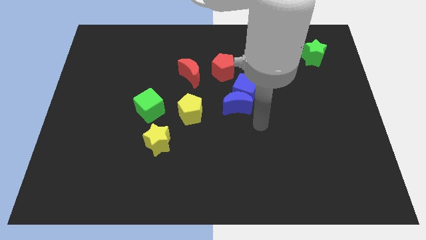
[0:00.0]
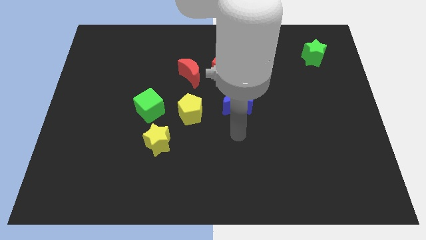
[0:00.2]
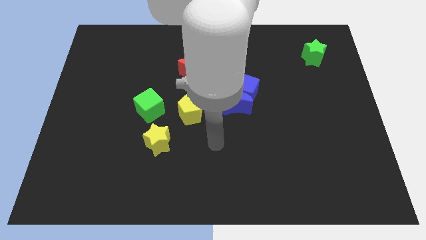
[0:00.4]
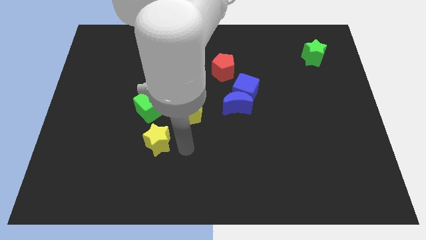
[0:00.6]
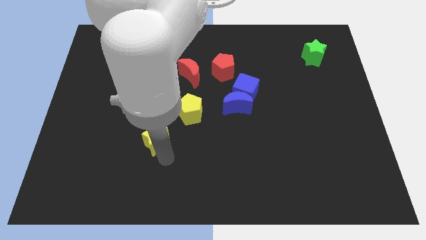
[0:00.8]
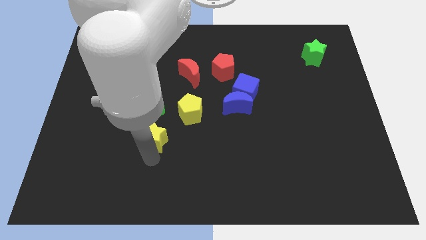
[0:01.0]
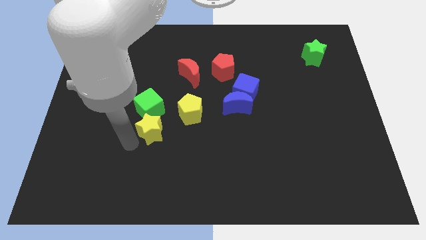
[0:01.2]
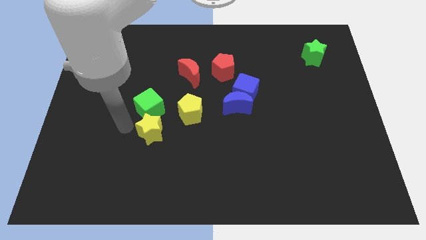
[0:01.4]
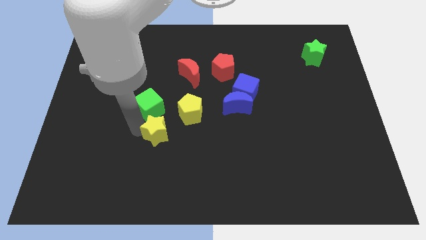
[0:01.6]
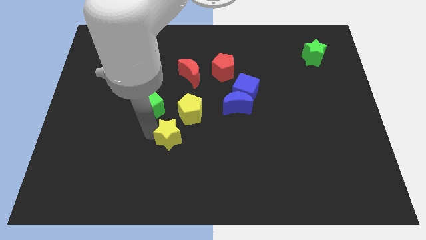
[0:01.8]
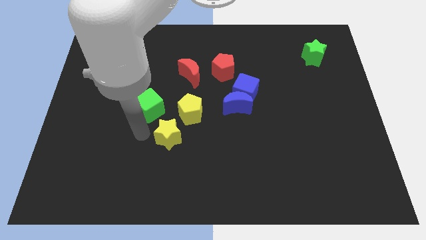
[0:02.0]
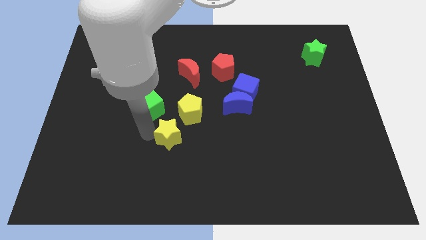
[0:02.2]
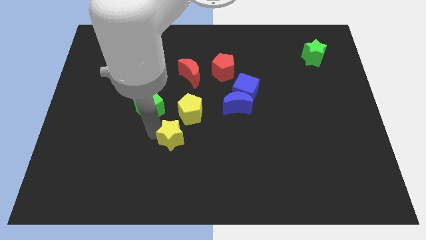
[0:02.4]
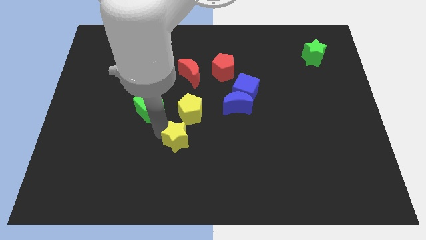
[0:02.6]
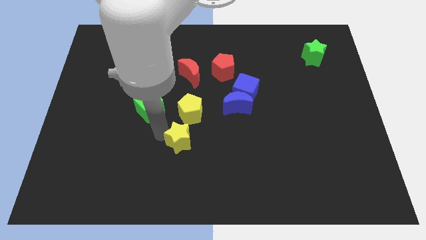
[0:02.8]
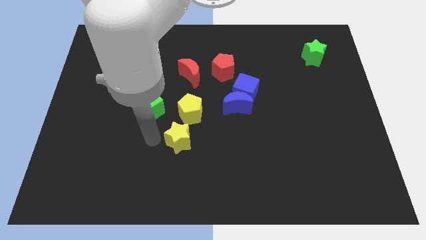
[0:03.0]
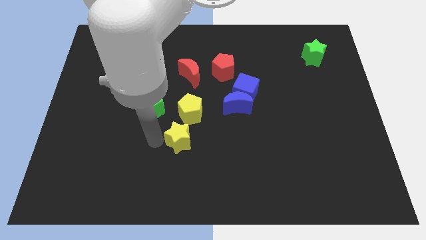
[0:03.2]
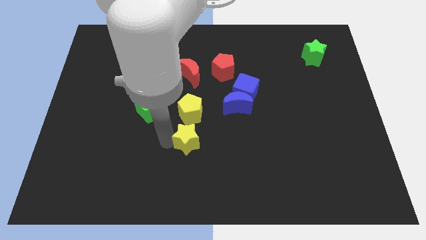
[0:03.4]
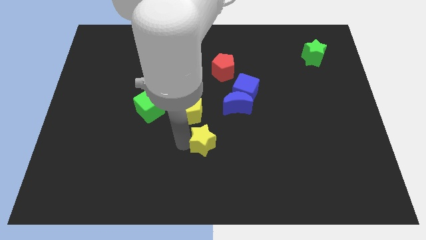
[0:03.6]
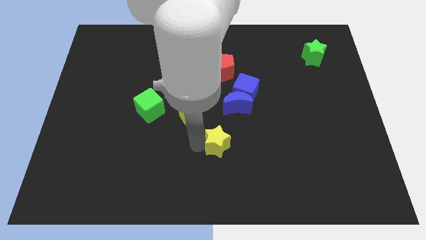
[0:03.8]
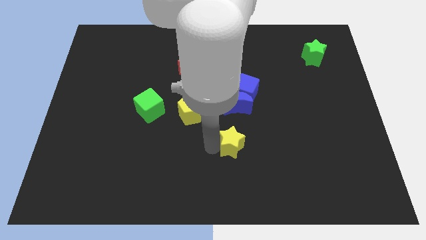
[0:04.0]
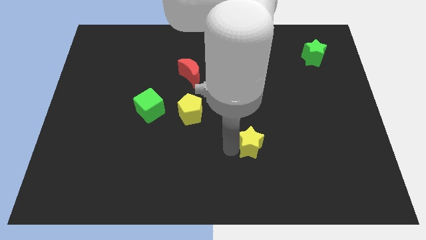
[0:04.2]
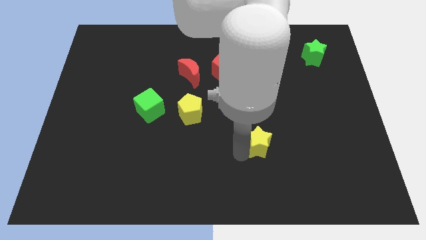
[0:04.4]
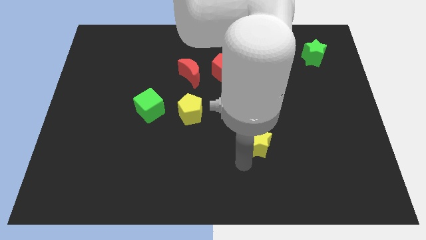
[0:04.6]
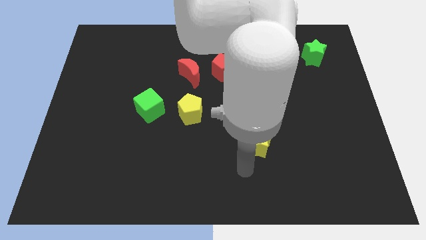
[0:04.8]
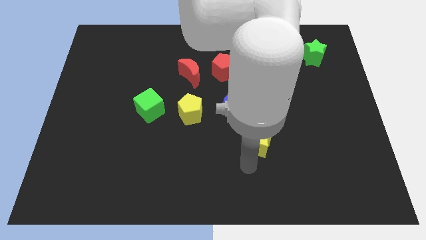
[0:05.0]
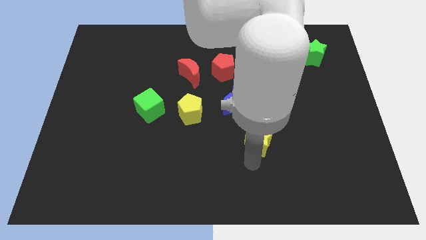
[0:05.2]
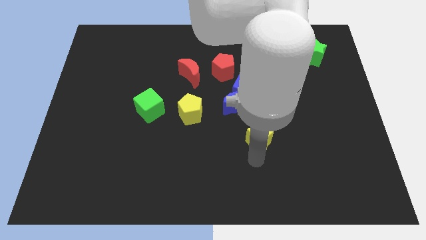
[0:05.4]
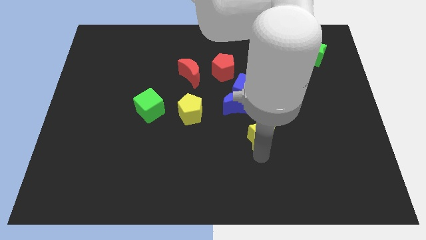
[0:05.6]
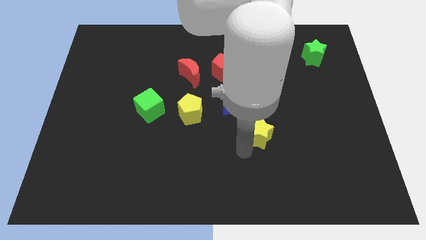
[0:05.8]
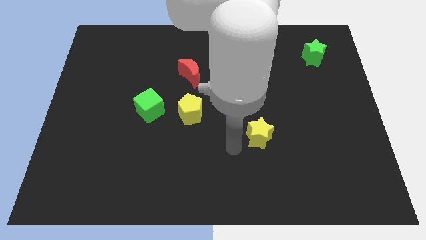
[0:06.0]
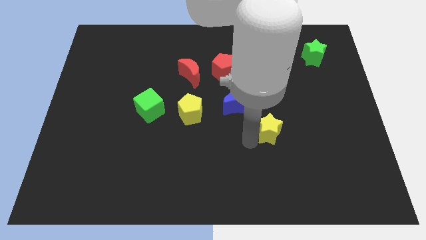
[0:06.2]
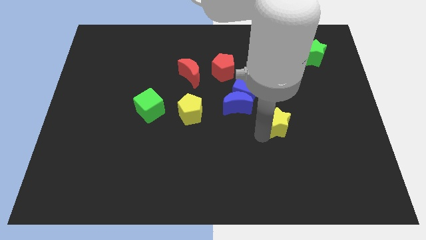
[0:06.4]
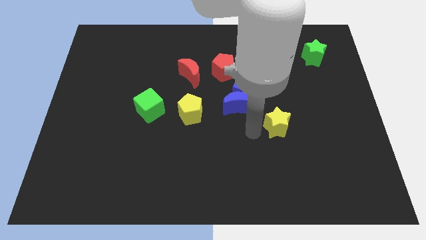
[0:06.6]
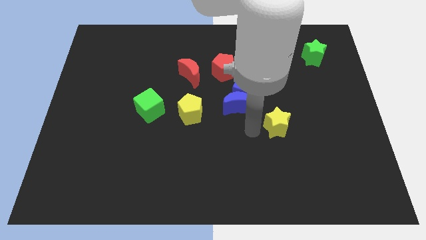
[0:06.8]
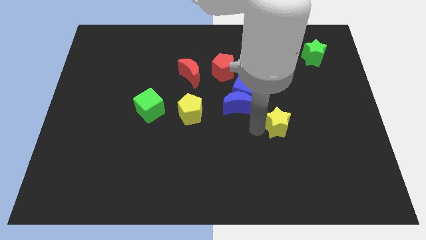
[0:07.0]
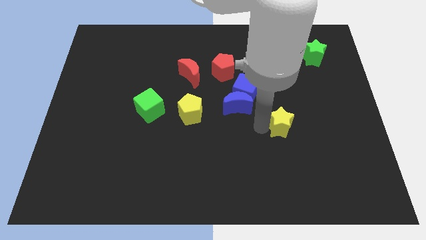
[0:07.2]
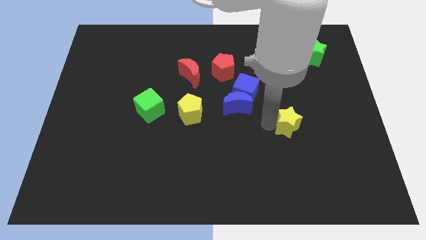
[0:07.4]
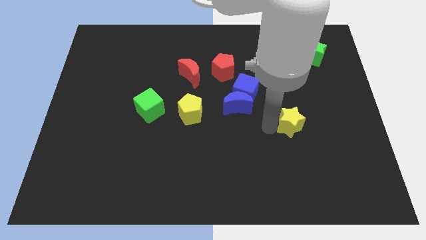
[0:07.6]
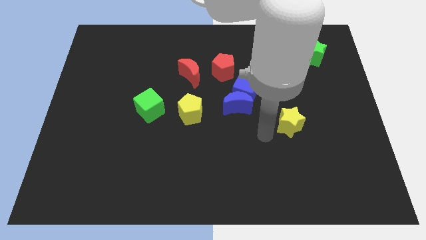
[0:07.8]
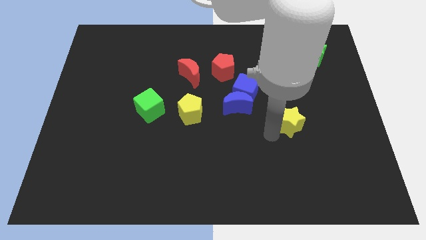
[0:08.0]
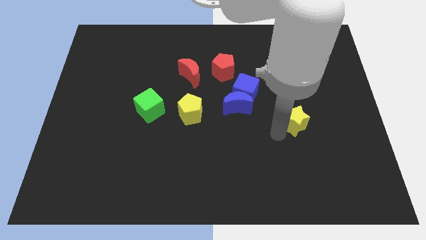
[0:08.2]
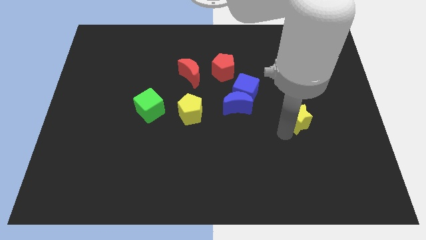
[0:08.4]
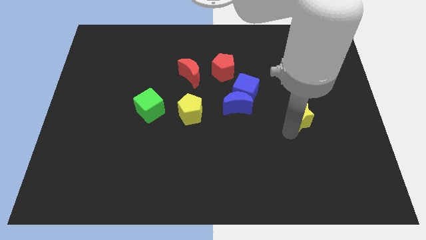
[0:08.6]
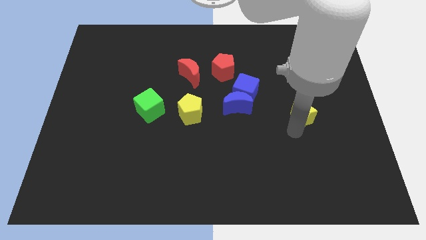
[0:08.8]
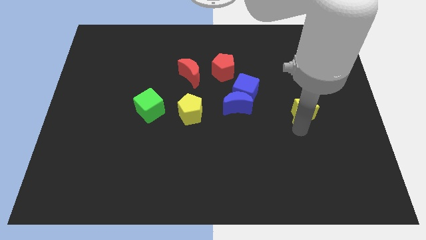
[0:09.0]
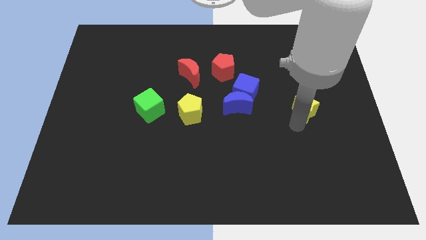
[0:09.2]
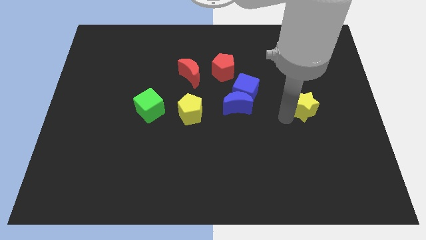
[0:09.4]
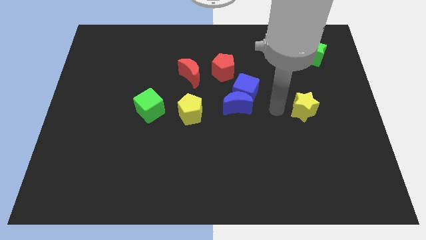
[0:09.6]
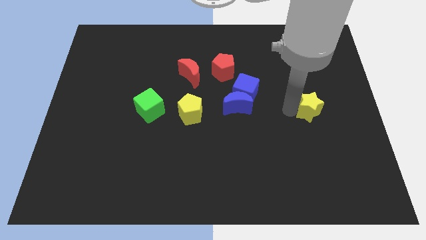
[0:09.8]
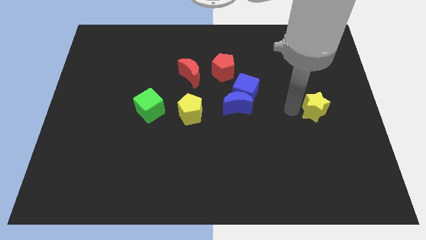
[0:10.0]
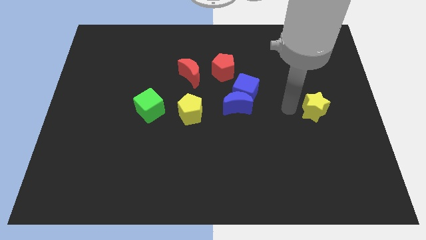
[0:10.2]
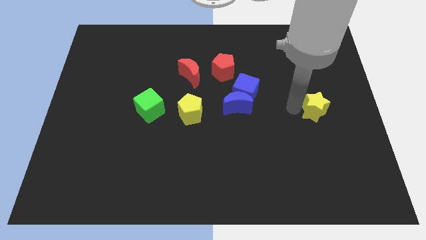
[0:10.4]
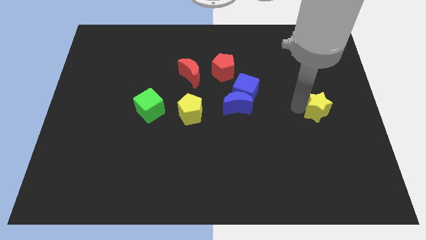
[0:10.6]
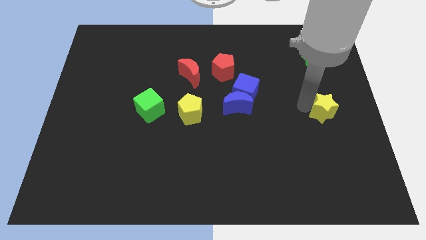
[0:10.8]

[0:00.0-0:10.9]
put the yellow star to the right side
